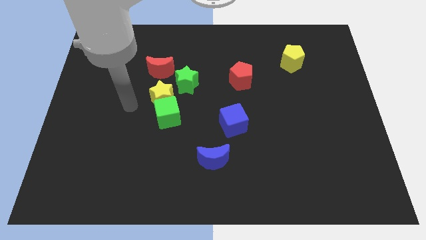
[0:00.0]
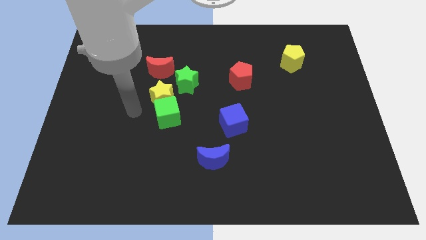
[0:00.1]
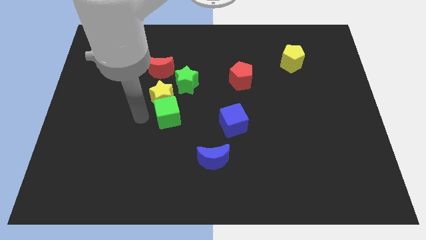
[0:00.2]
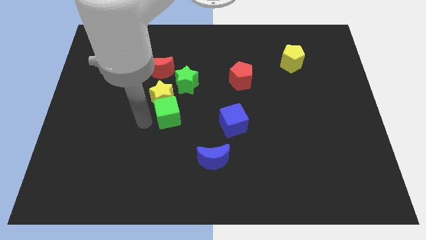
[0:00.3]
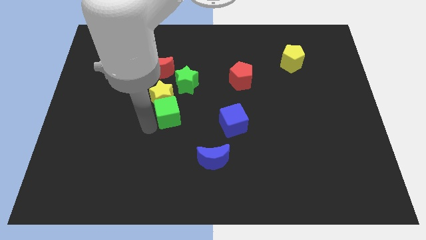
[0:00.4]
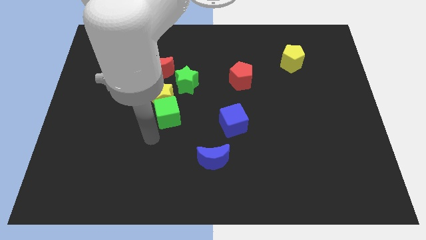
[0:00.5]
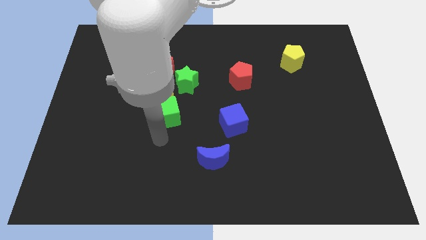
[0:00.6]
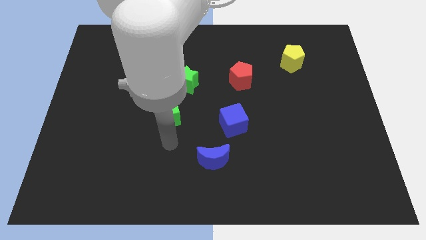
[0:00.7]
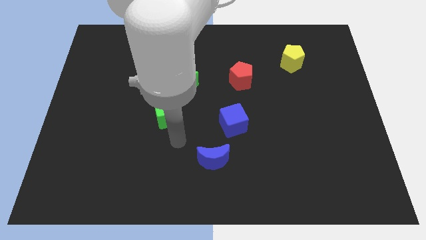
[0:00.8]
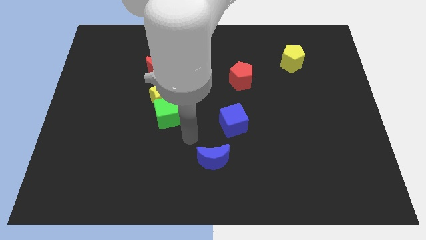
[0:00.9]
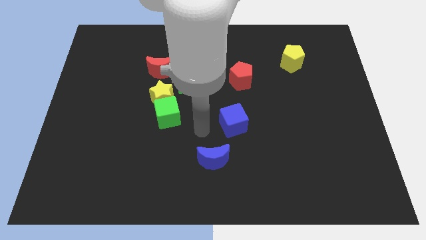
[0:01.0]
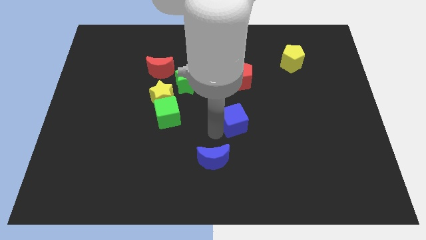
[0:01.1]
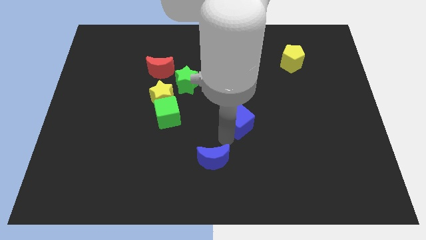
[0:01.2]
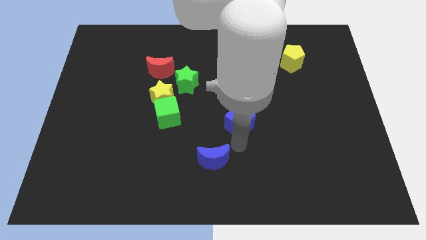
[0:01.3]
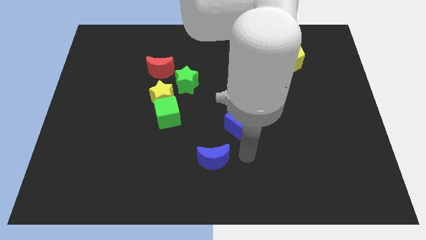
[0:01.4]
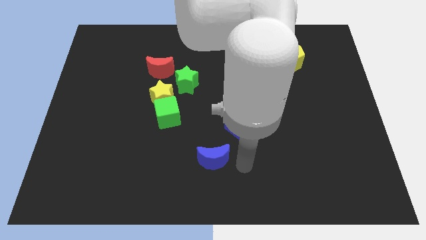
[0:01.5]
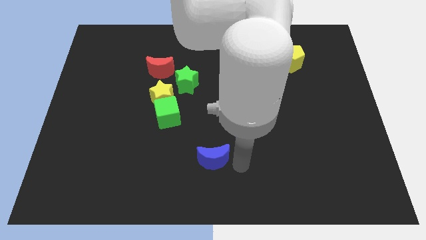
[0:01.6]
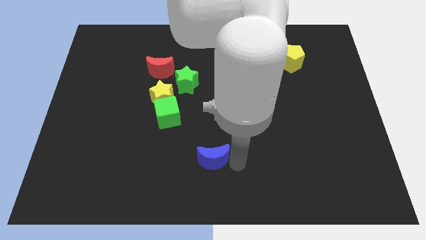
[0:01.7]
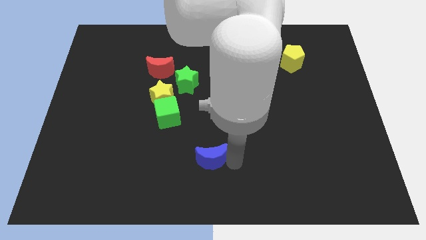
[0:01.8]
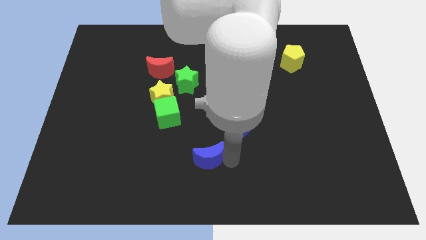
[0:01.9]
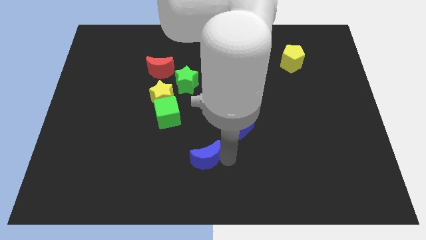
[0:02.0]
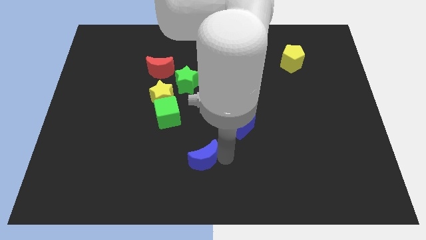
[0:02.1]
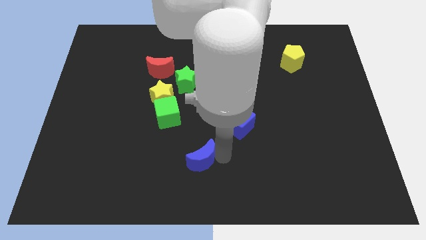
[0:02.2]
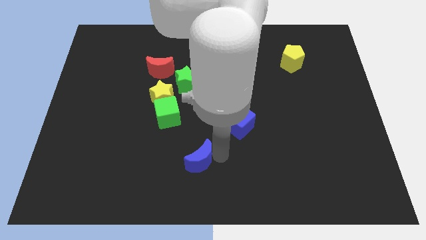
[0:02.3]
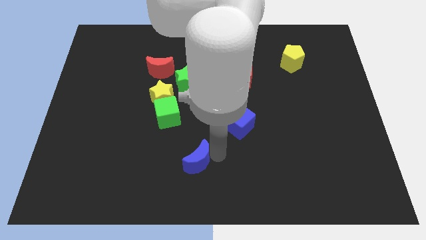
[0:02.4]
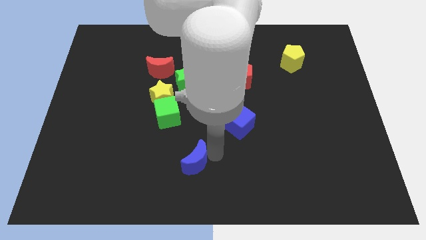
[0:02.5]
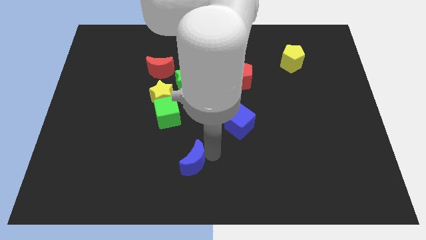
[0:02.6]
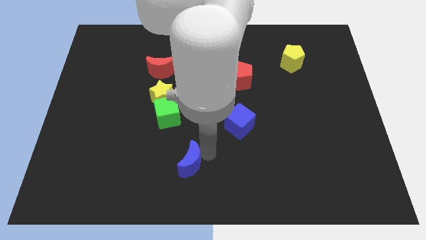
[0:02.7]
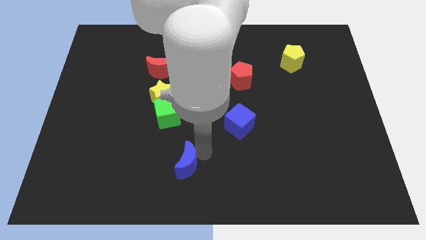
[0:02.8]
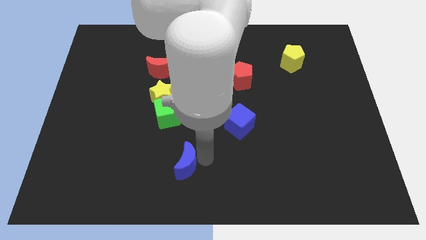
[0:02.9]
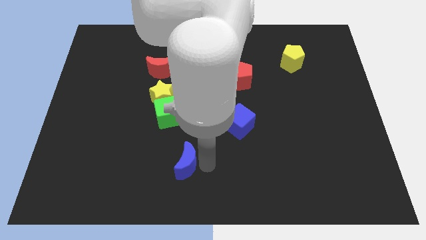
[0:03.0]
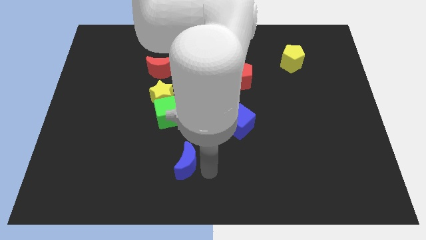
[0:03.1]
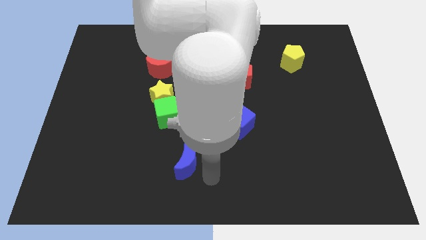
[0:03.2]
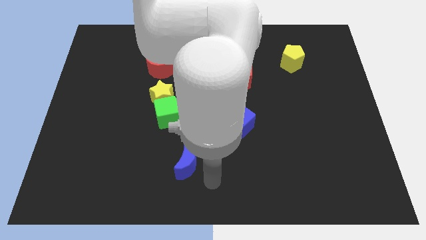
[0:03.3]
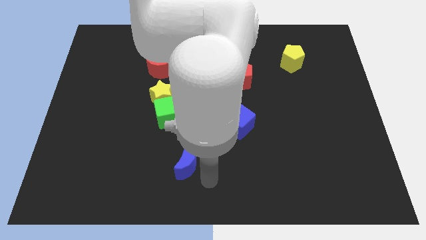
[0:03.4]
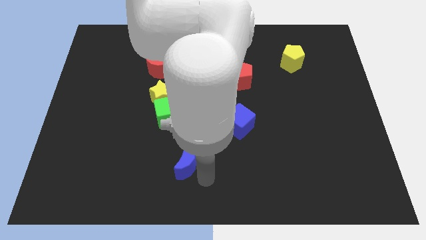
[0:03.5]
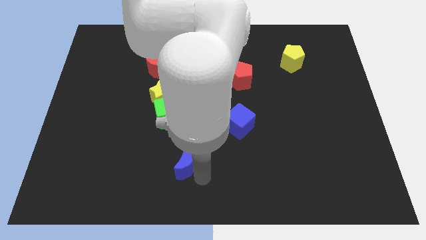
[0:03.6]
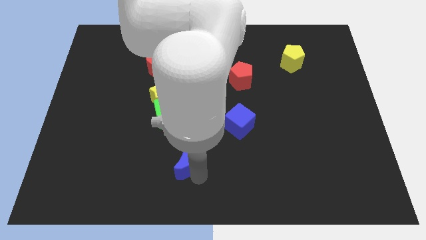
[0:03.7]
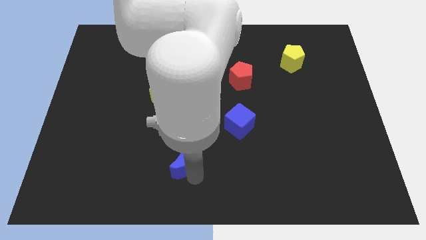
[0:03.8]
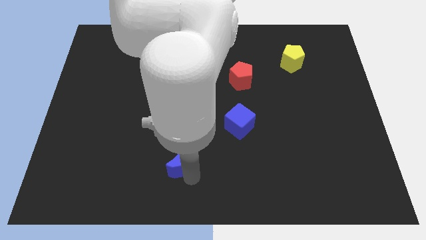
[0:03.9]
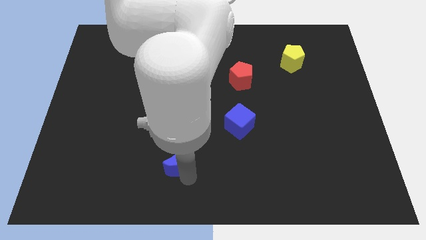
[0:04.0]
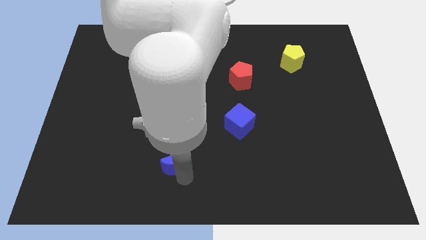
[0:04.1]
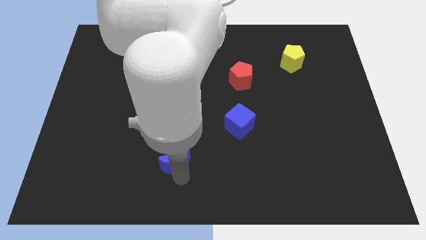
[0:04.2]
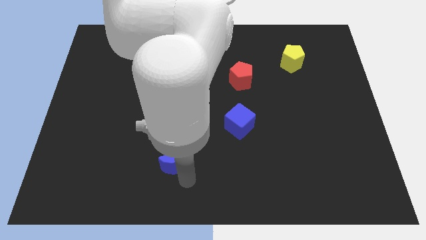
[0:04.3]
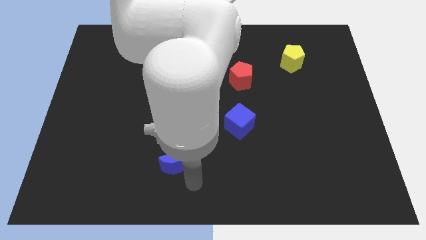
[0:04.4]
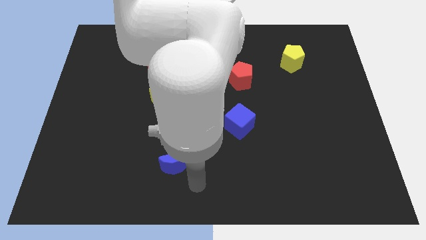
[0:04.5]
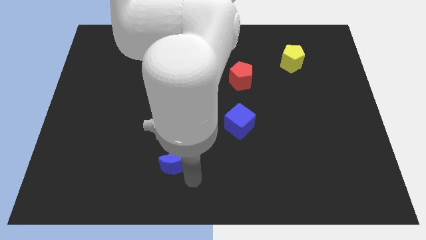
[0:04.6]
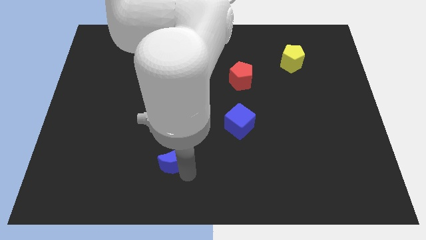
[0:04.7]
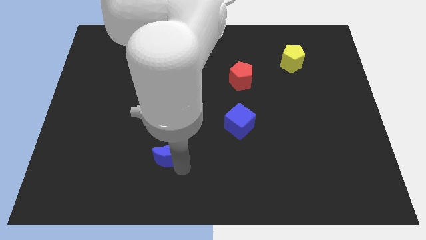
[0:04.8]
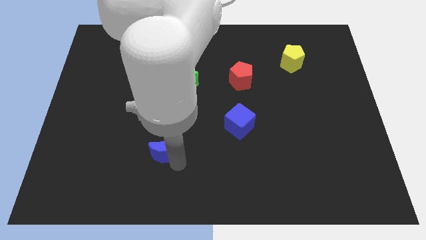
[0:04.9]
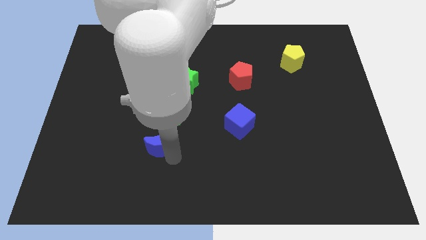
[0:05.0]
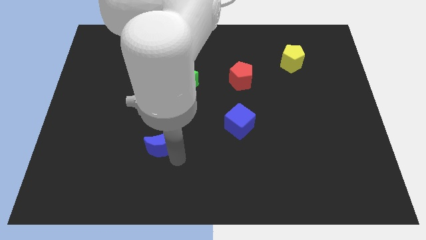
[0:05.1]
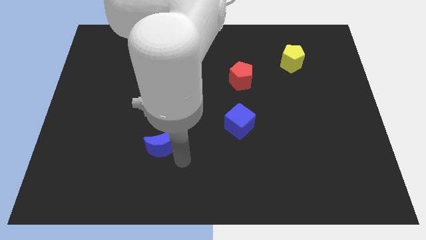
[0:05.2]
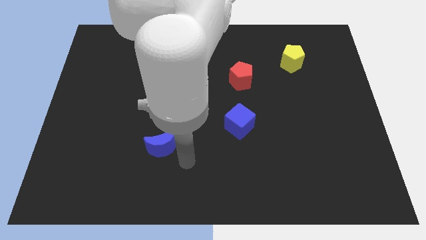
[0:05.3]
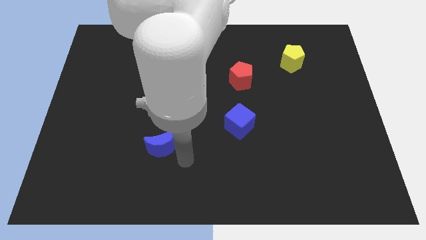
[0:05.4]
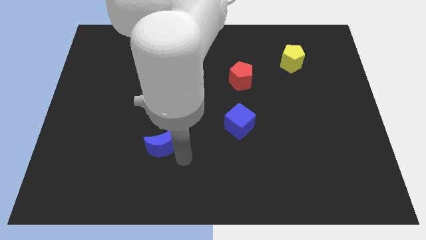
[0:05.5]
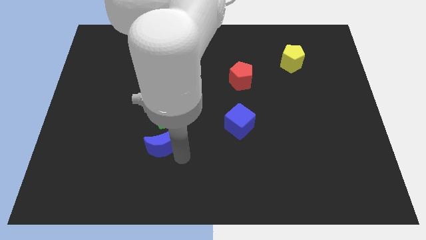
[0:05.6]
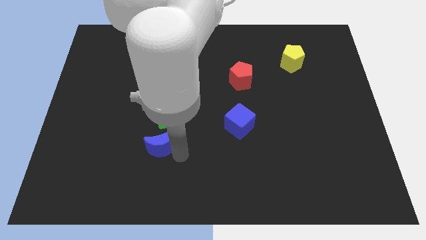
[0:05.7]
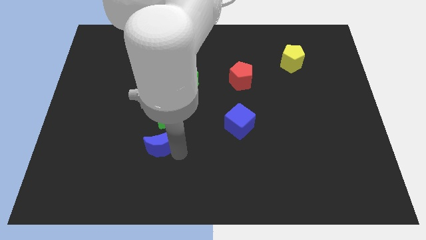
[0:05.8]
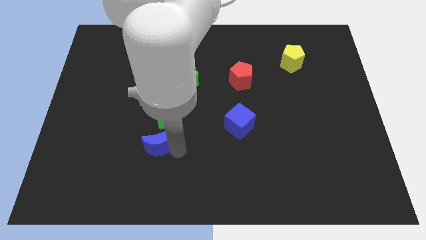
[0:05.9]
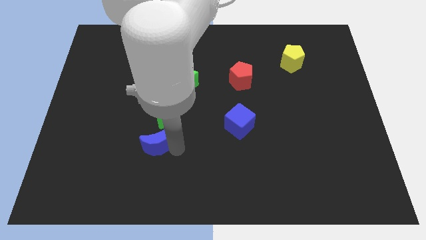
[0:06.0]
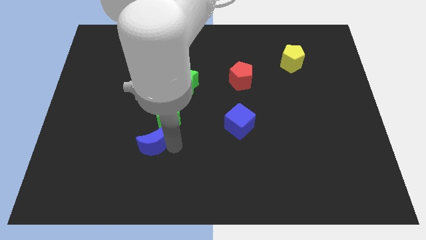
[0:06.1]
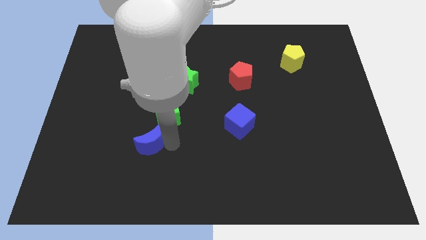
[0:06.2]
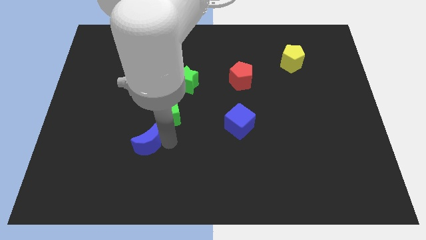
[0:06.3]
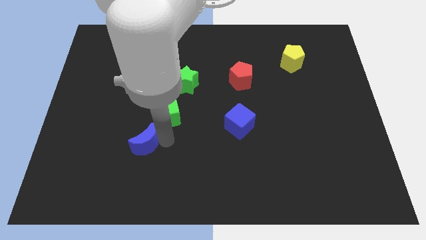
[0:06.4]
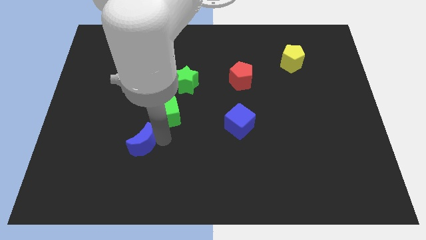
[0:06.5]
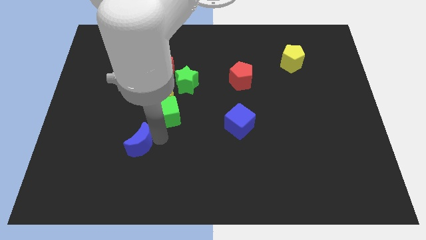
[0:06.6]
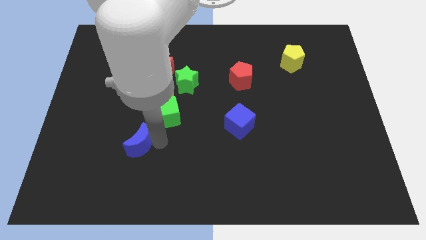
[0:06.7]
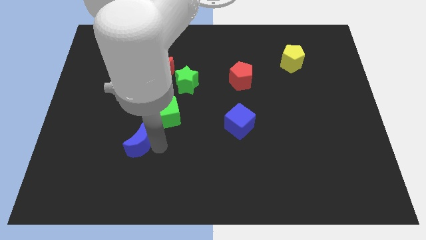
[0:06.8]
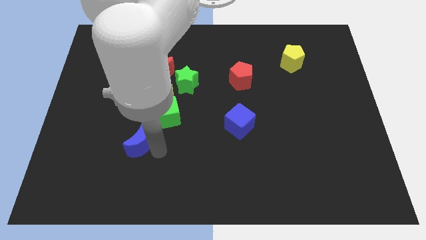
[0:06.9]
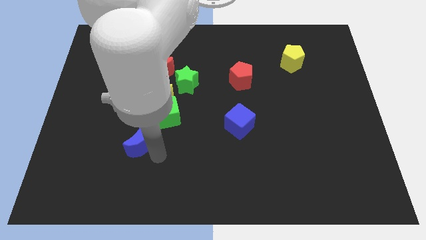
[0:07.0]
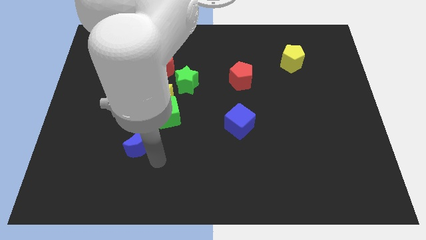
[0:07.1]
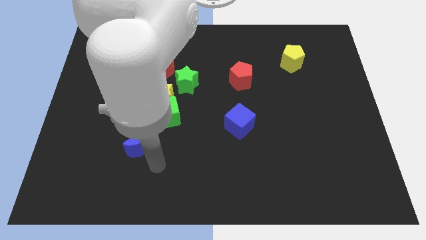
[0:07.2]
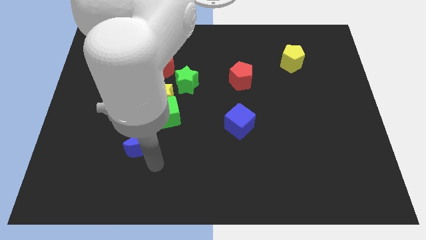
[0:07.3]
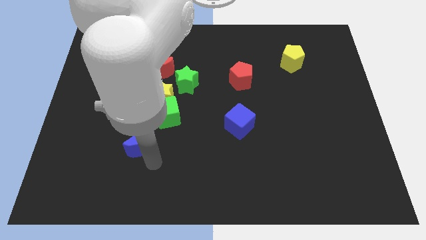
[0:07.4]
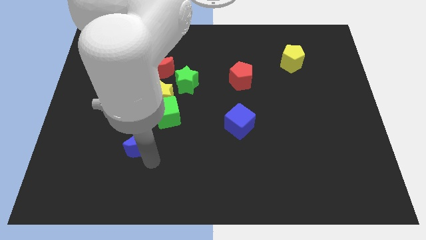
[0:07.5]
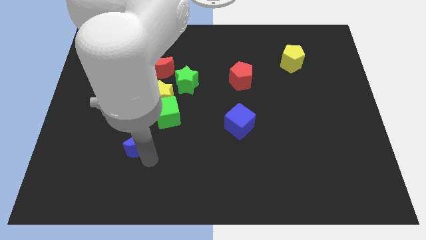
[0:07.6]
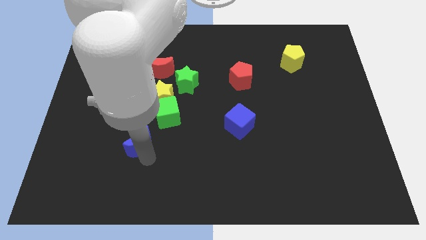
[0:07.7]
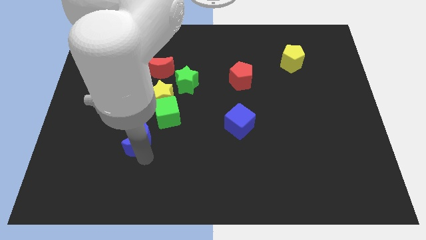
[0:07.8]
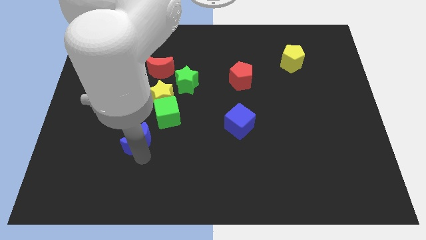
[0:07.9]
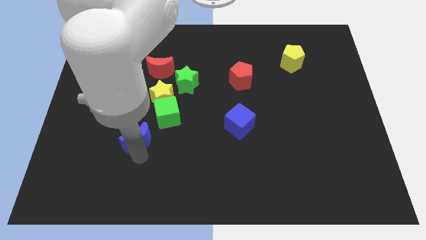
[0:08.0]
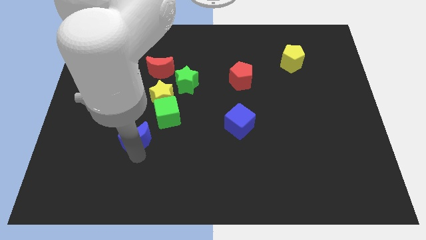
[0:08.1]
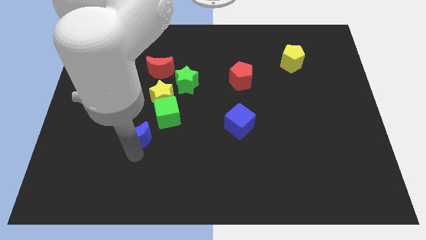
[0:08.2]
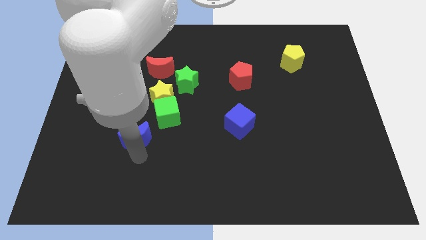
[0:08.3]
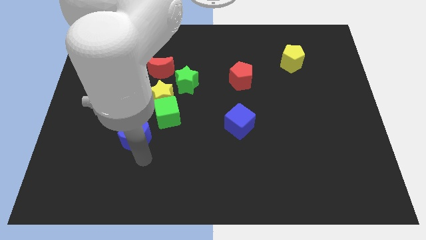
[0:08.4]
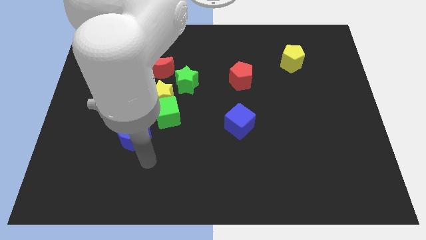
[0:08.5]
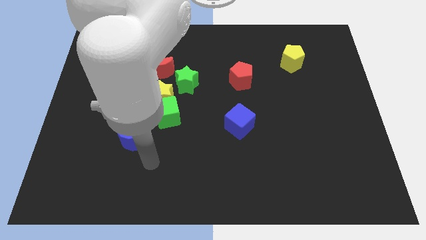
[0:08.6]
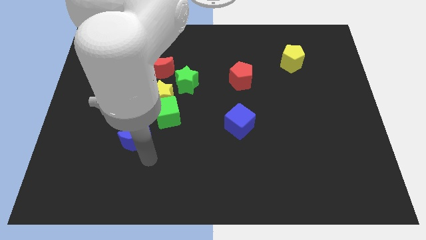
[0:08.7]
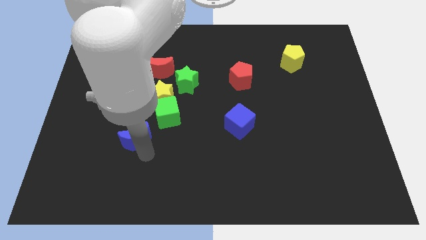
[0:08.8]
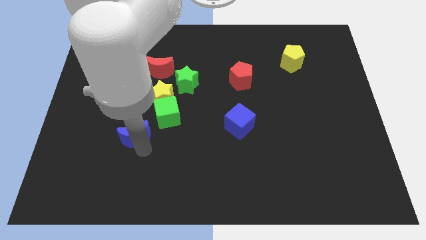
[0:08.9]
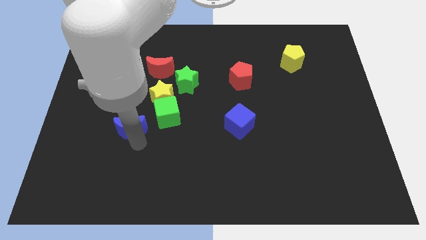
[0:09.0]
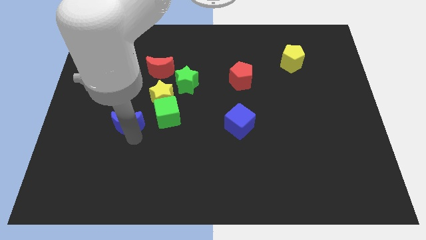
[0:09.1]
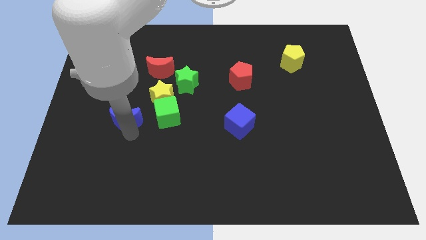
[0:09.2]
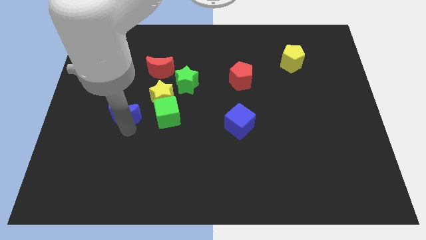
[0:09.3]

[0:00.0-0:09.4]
push the blue moon diagonally upwards and left
